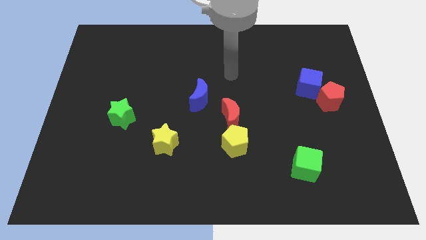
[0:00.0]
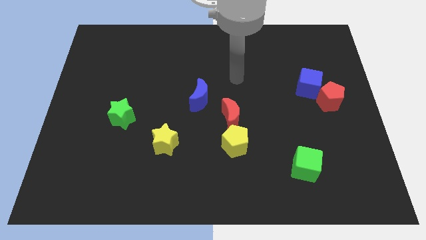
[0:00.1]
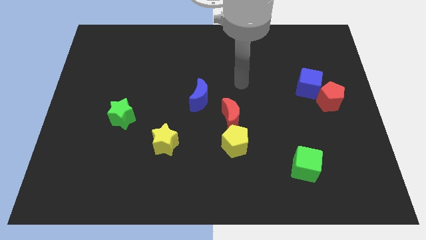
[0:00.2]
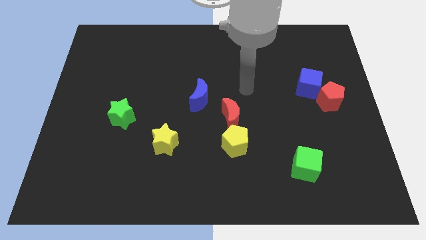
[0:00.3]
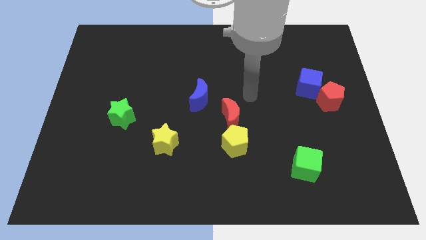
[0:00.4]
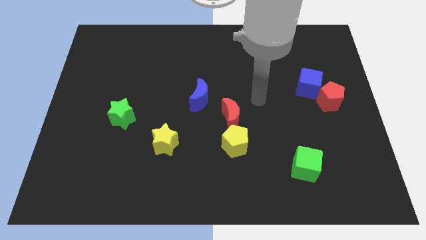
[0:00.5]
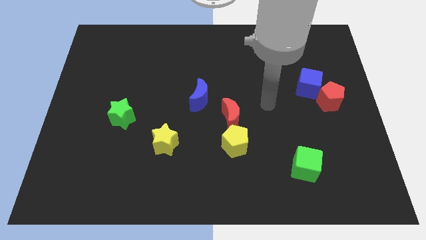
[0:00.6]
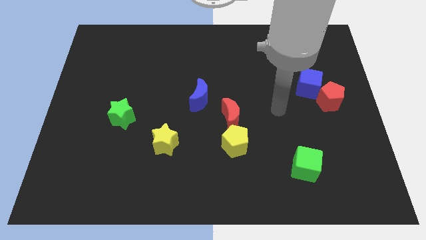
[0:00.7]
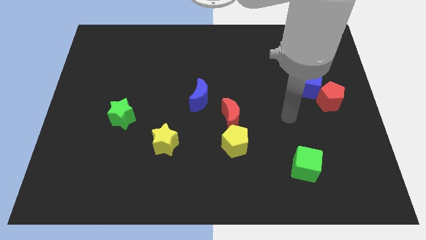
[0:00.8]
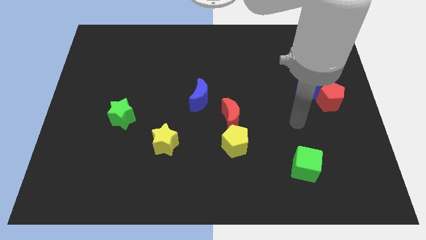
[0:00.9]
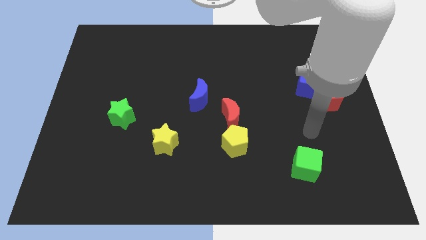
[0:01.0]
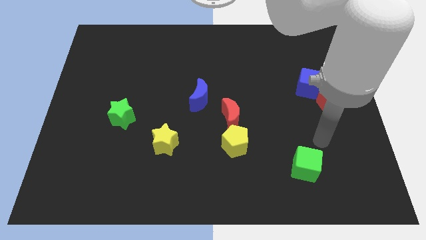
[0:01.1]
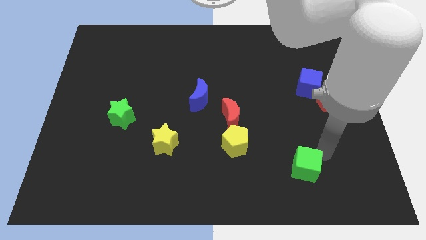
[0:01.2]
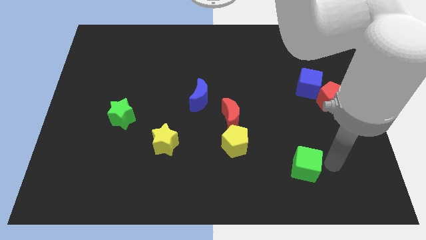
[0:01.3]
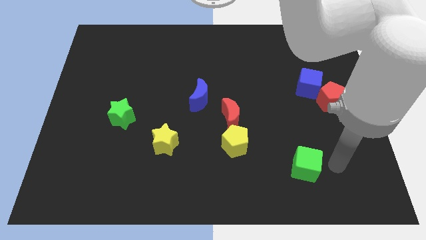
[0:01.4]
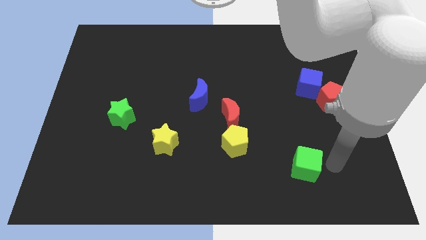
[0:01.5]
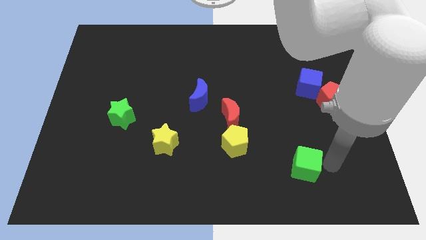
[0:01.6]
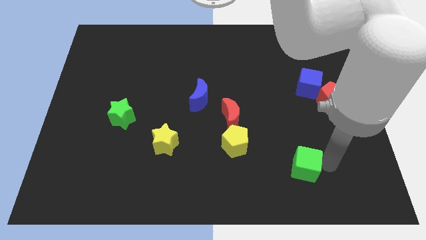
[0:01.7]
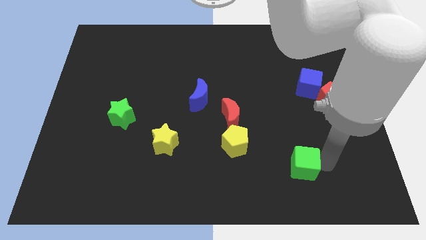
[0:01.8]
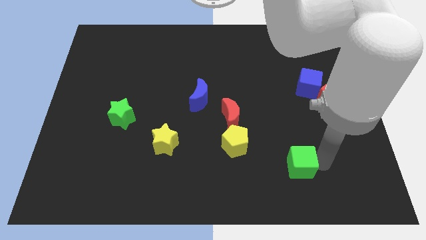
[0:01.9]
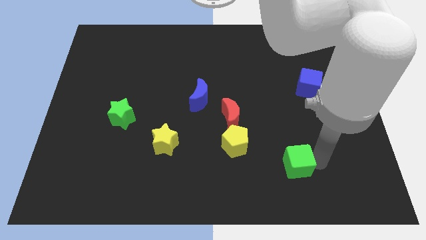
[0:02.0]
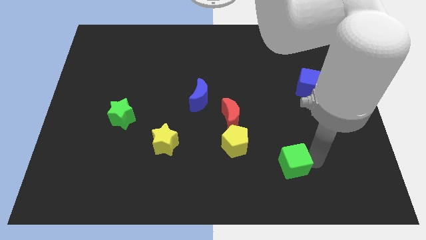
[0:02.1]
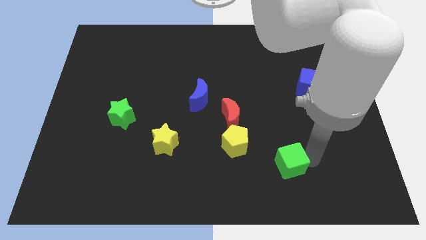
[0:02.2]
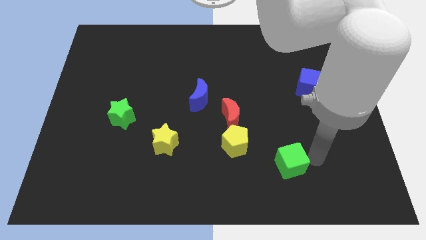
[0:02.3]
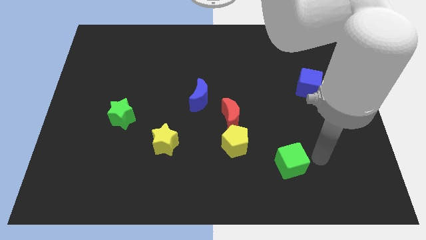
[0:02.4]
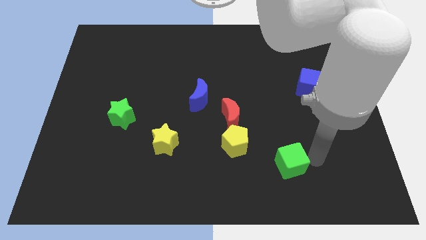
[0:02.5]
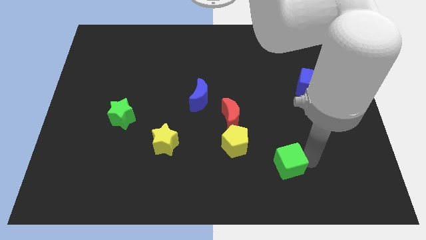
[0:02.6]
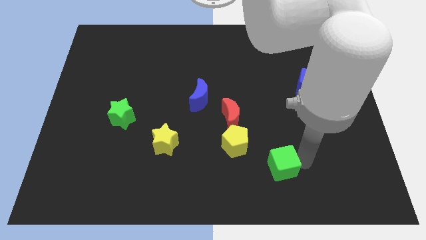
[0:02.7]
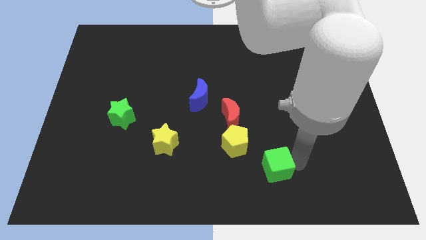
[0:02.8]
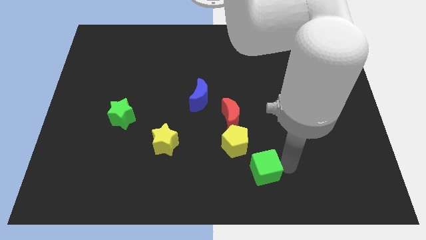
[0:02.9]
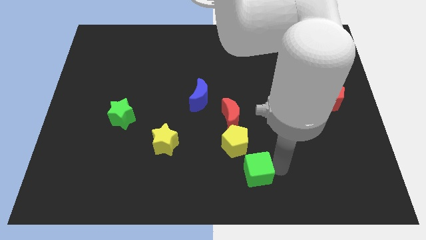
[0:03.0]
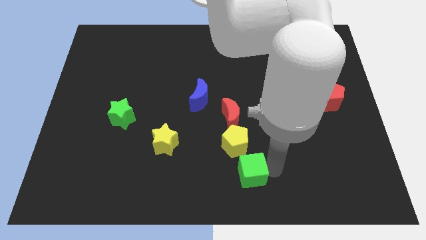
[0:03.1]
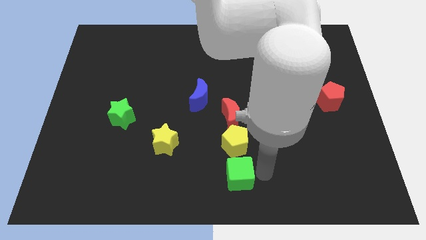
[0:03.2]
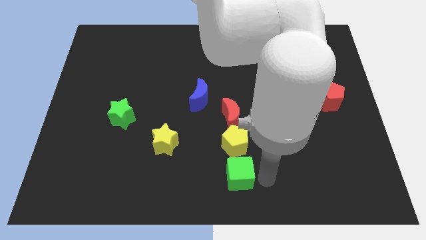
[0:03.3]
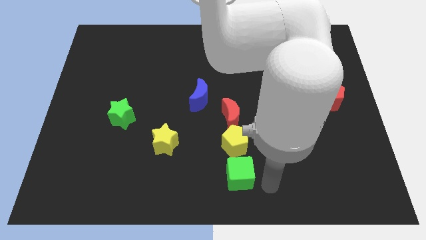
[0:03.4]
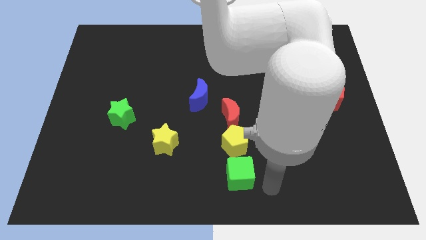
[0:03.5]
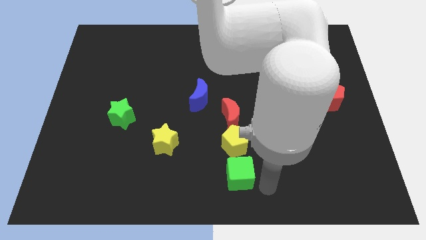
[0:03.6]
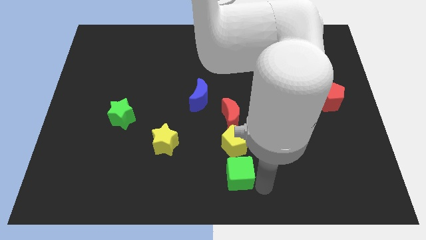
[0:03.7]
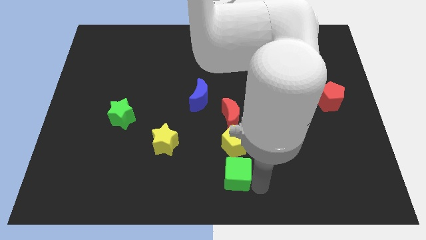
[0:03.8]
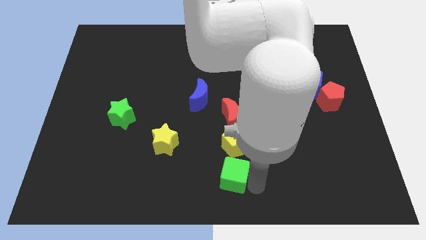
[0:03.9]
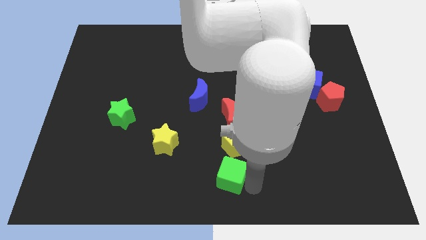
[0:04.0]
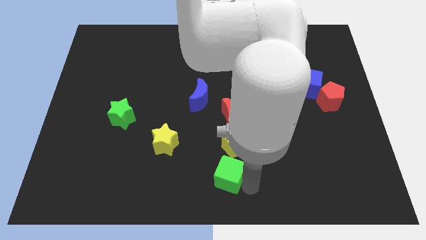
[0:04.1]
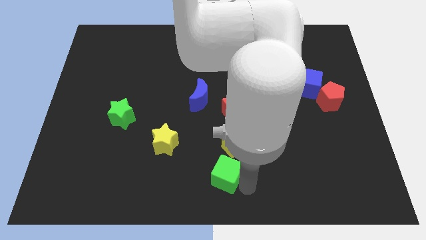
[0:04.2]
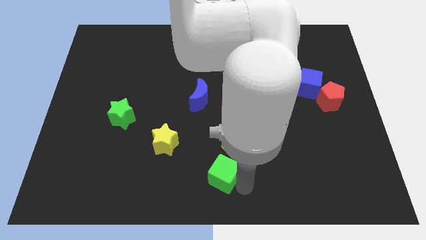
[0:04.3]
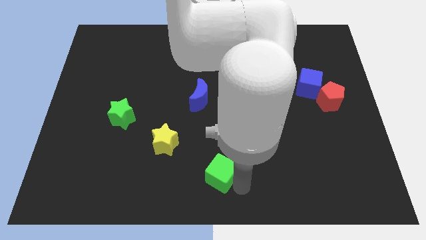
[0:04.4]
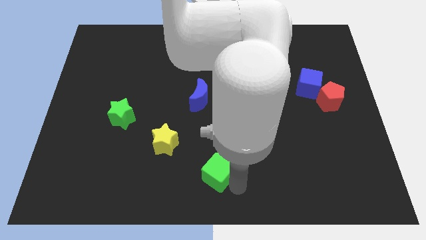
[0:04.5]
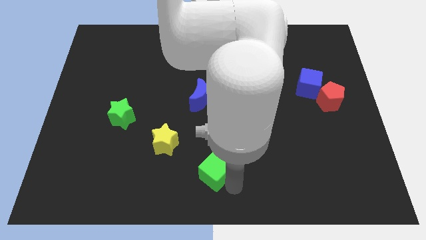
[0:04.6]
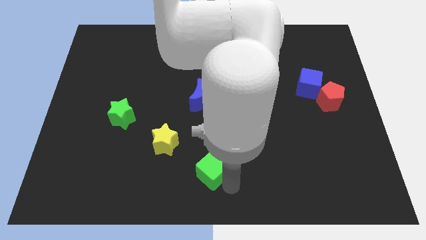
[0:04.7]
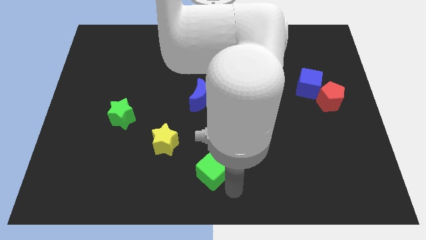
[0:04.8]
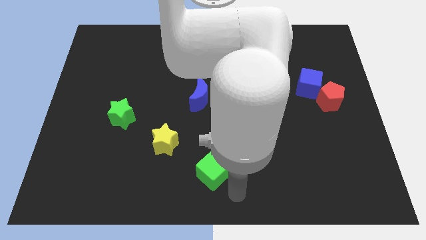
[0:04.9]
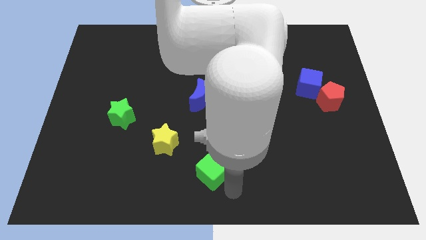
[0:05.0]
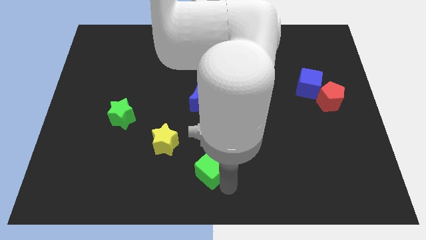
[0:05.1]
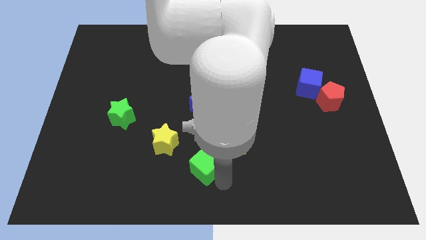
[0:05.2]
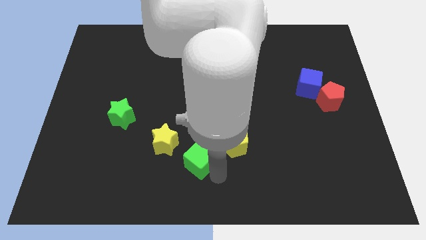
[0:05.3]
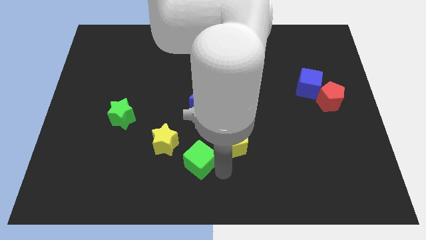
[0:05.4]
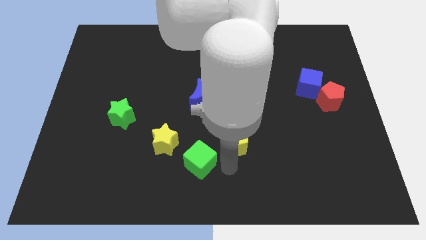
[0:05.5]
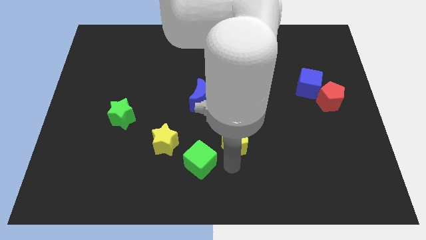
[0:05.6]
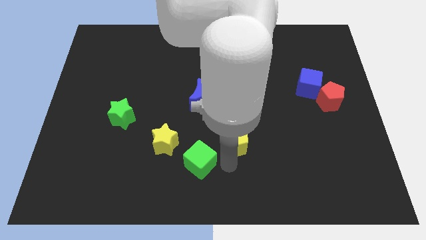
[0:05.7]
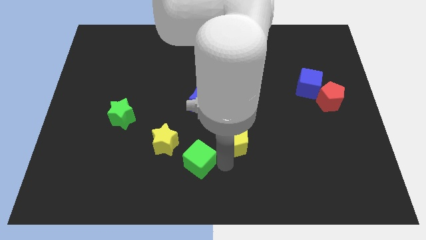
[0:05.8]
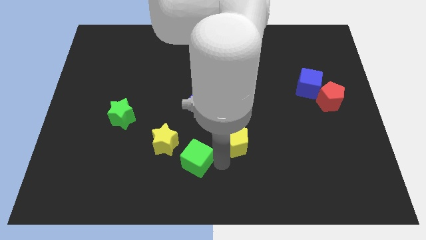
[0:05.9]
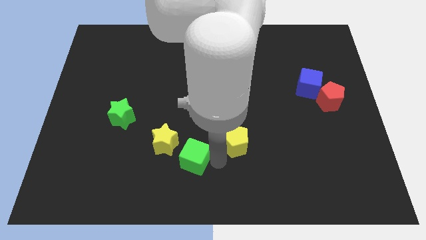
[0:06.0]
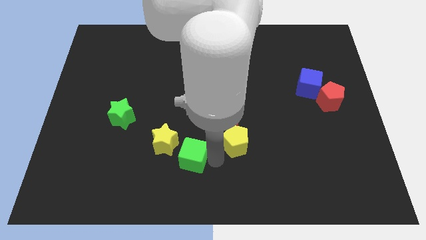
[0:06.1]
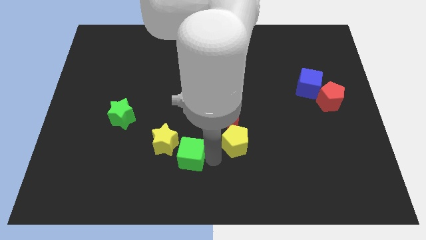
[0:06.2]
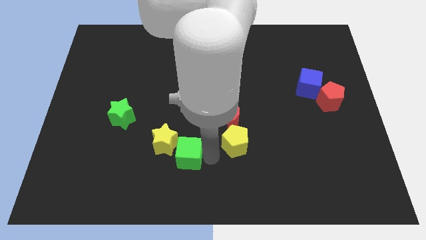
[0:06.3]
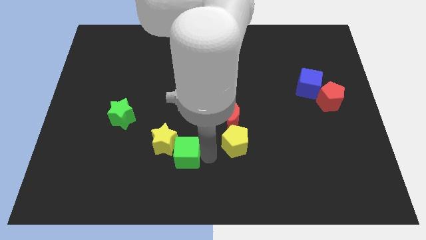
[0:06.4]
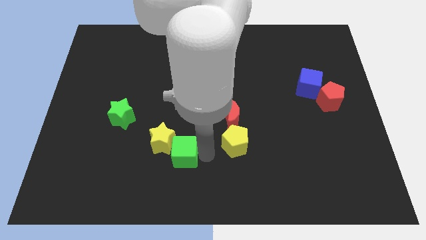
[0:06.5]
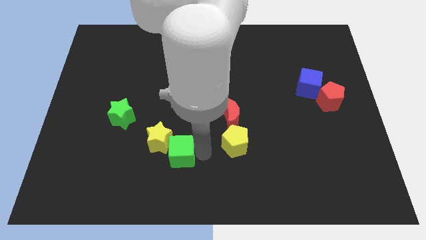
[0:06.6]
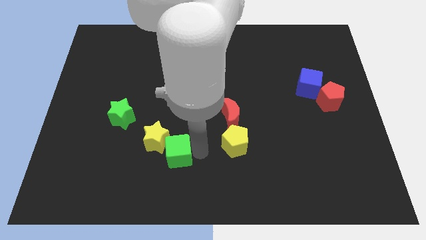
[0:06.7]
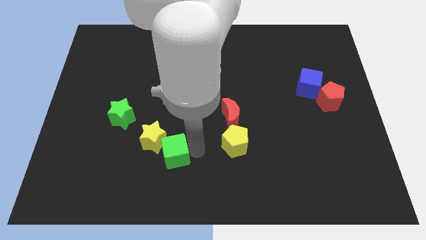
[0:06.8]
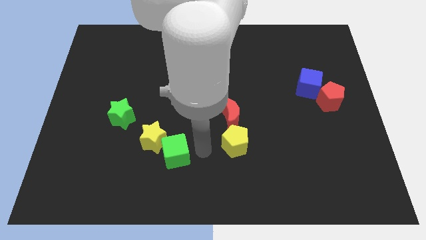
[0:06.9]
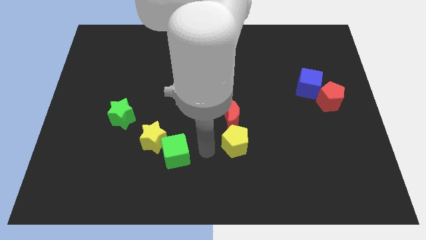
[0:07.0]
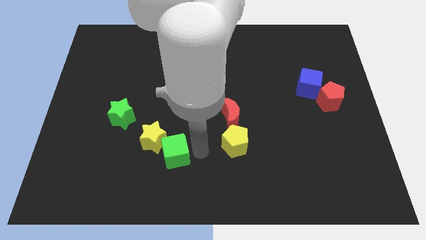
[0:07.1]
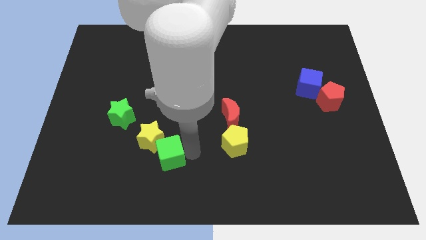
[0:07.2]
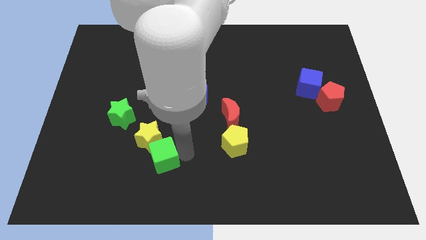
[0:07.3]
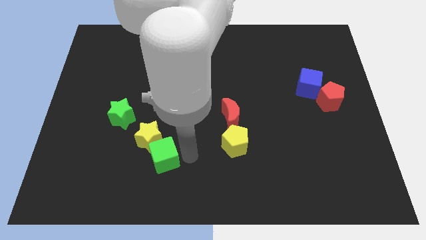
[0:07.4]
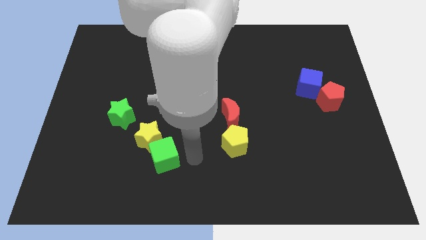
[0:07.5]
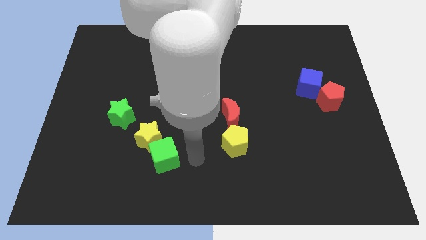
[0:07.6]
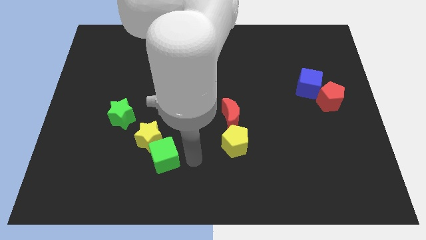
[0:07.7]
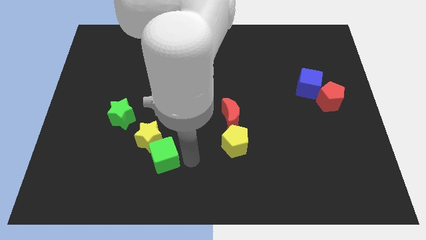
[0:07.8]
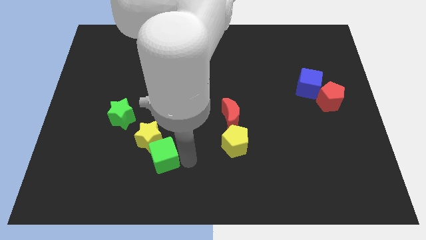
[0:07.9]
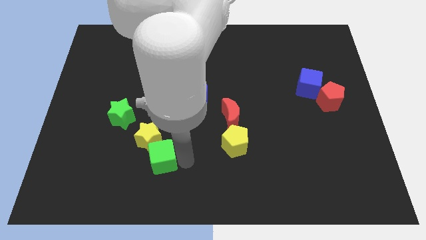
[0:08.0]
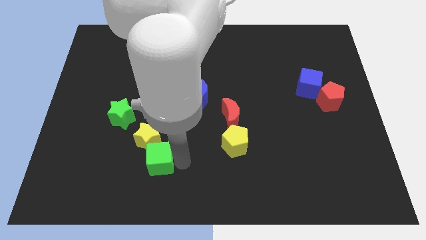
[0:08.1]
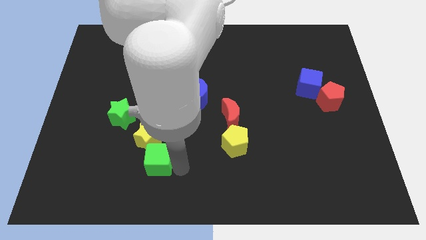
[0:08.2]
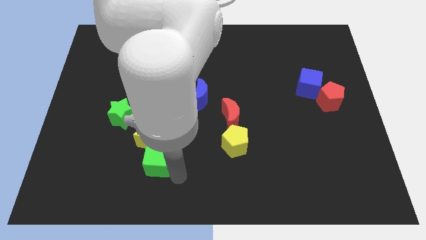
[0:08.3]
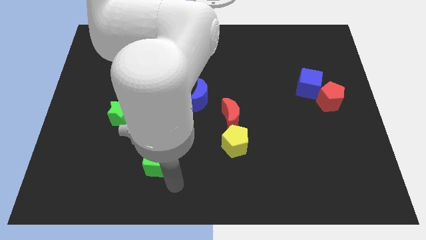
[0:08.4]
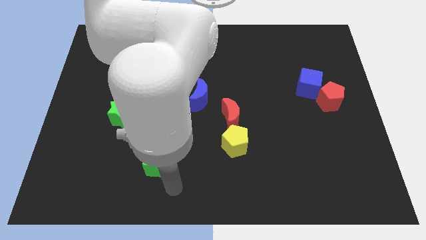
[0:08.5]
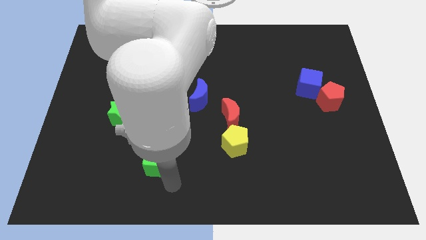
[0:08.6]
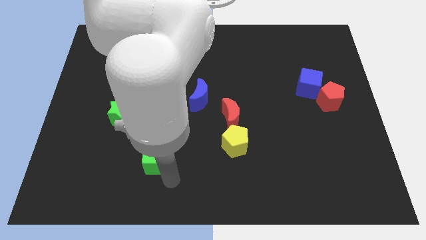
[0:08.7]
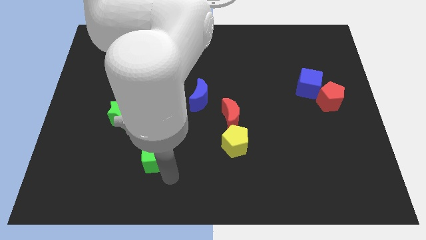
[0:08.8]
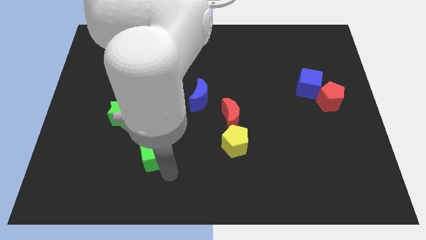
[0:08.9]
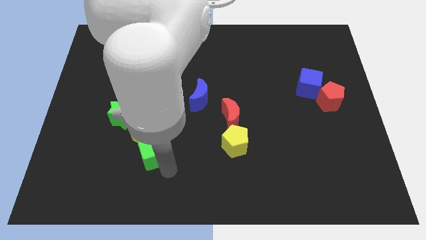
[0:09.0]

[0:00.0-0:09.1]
slide the green cube to the bottom right side of the green star
